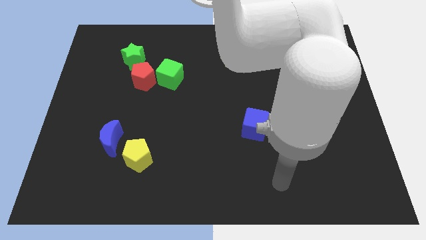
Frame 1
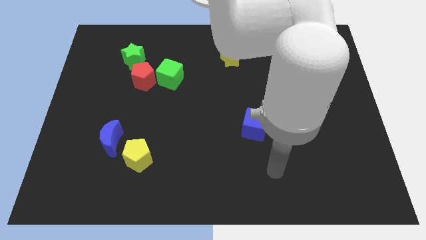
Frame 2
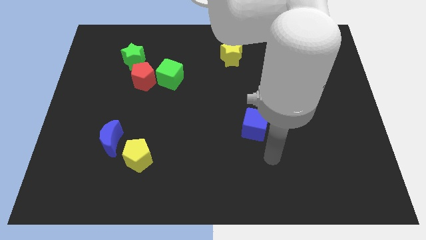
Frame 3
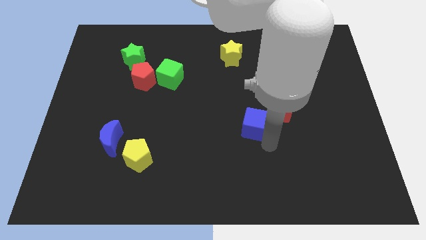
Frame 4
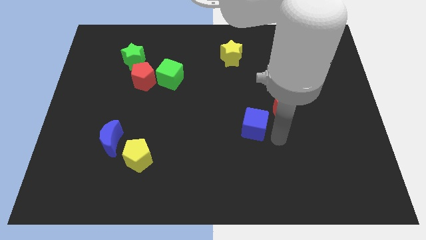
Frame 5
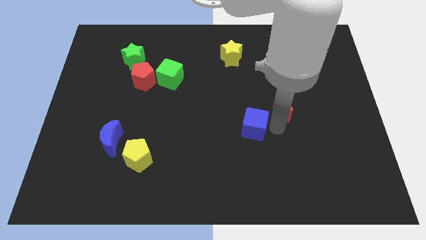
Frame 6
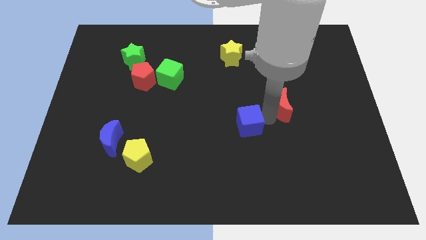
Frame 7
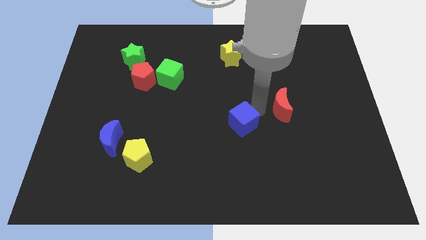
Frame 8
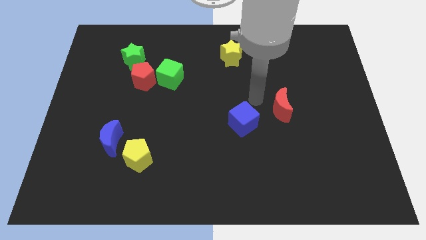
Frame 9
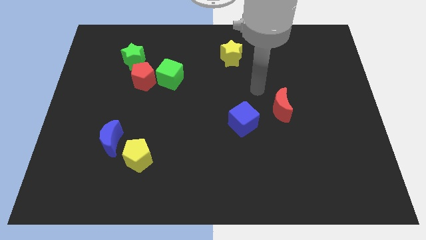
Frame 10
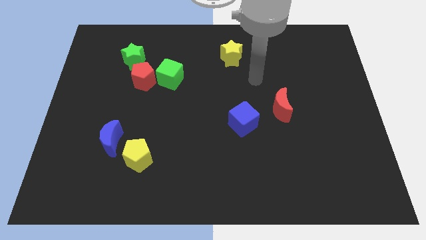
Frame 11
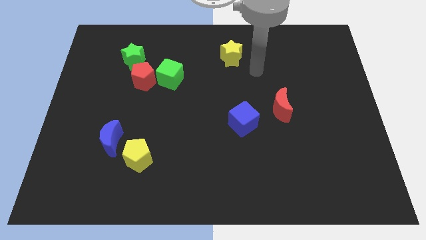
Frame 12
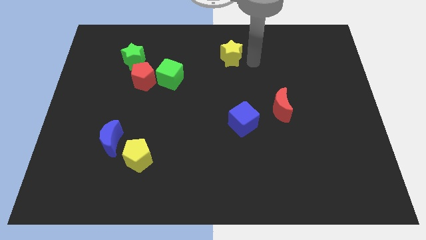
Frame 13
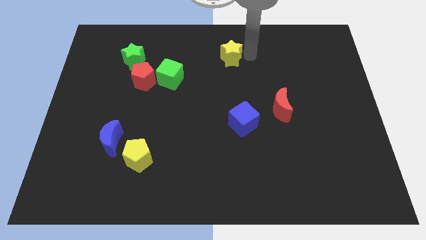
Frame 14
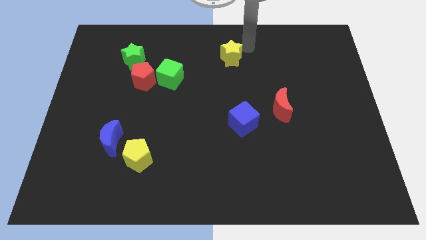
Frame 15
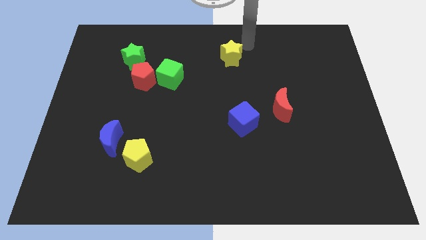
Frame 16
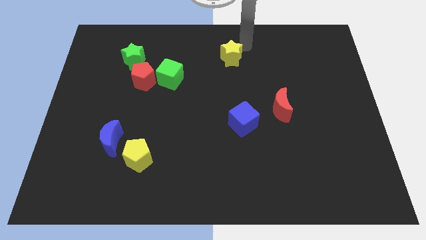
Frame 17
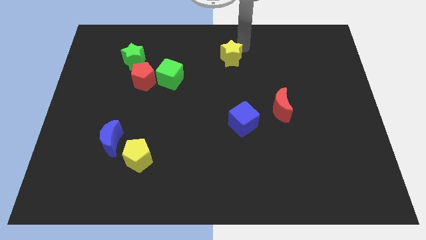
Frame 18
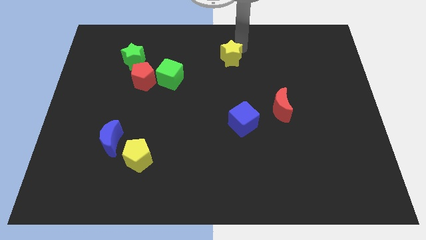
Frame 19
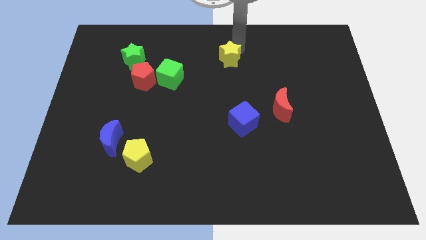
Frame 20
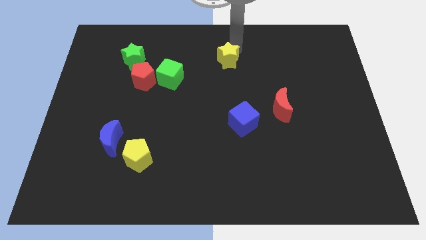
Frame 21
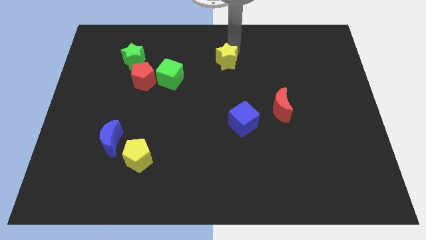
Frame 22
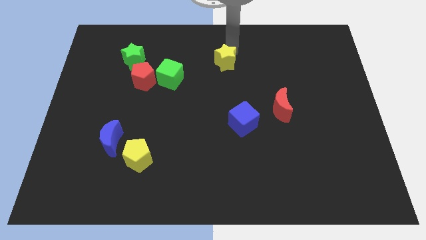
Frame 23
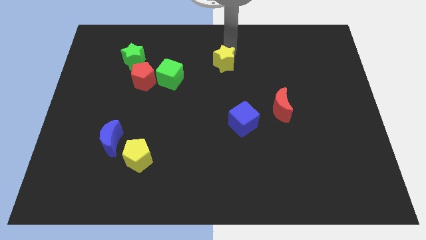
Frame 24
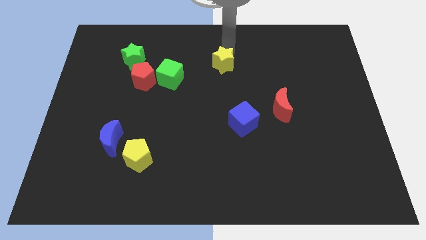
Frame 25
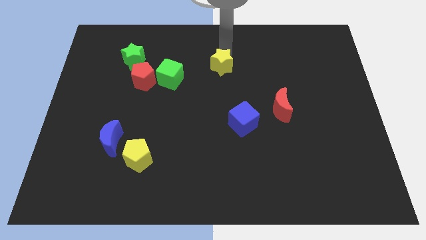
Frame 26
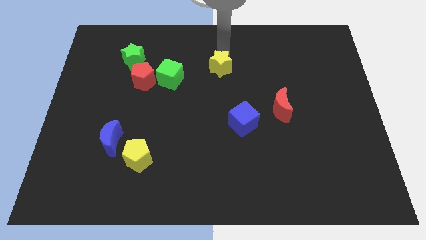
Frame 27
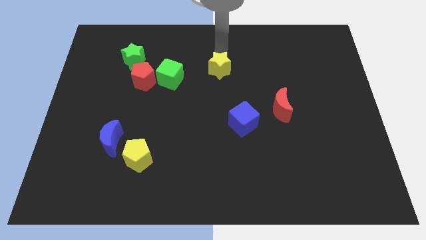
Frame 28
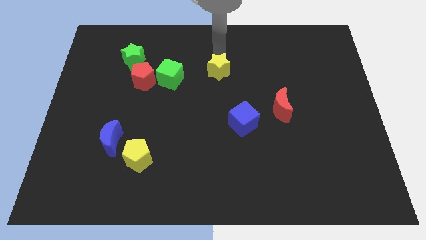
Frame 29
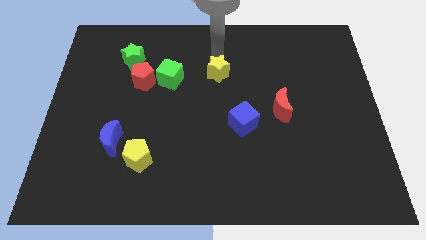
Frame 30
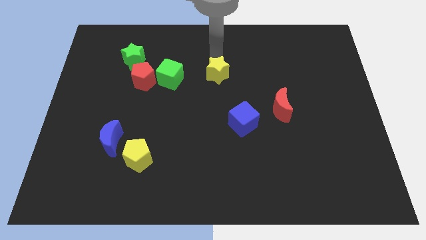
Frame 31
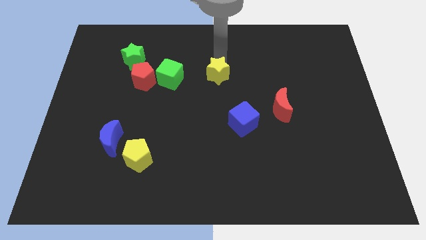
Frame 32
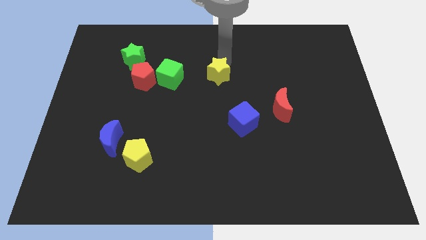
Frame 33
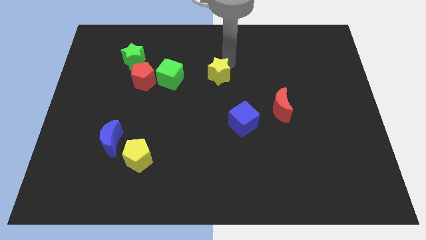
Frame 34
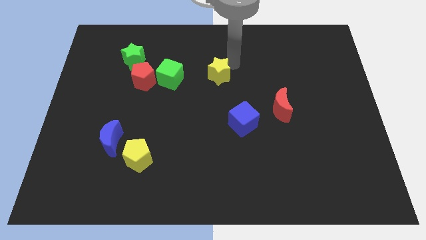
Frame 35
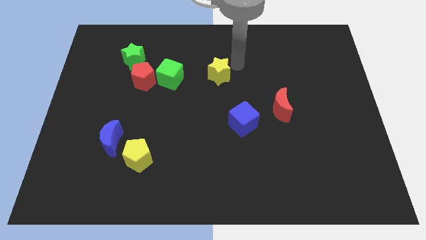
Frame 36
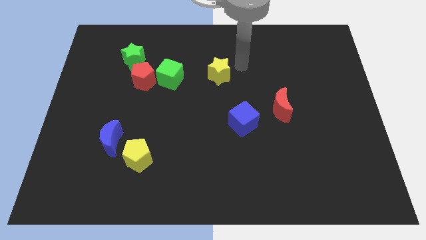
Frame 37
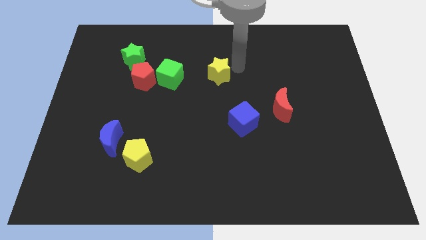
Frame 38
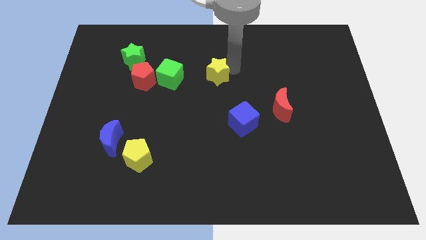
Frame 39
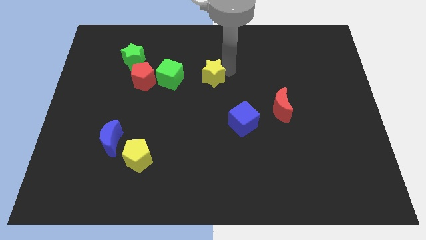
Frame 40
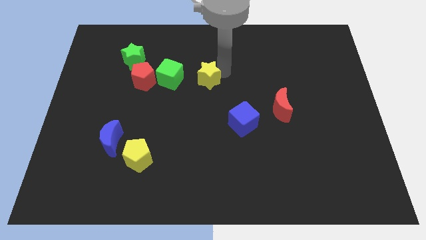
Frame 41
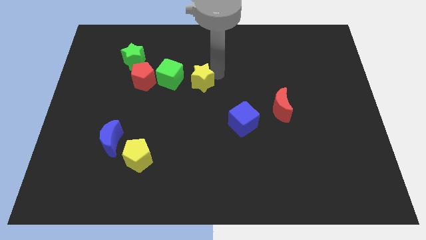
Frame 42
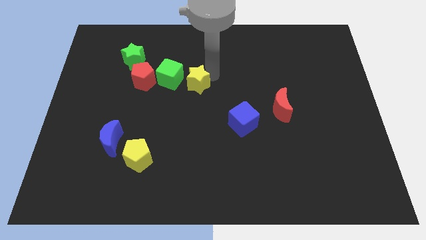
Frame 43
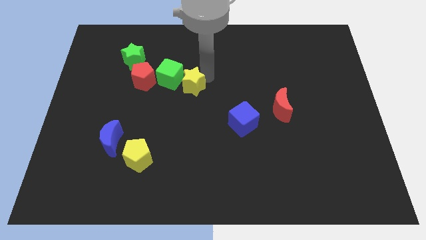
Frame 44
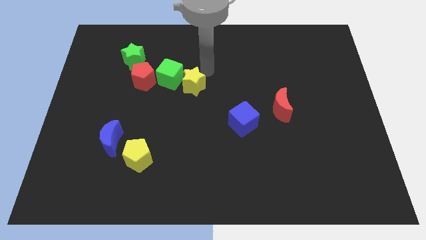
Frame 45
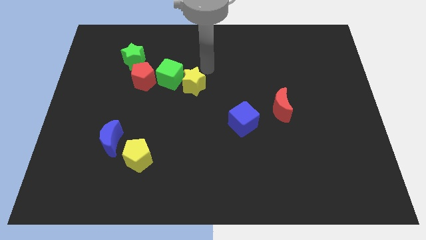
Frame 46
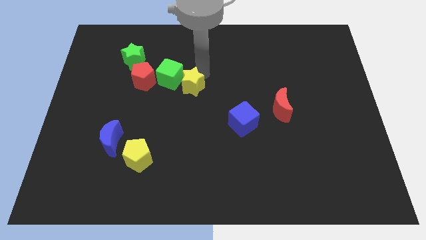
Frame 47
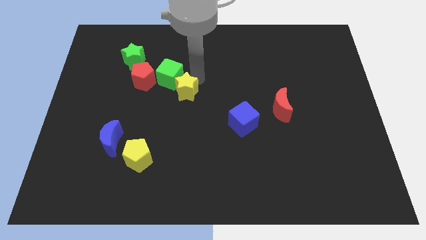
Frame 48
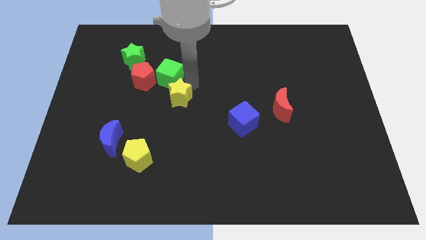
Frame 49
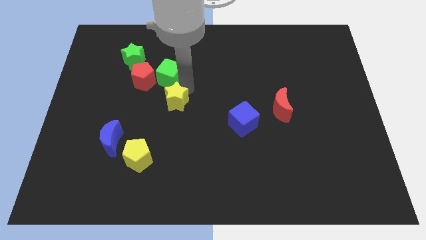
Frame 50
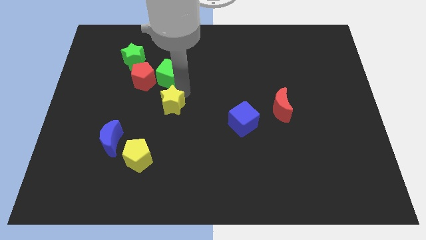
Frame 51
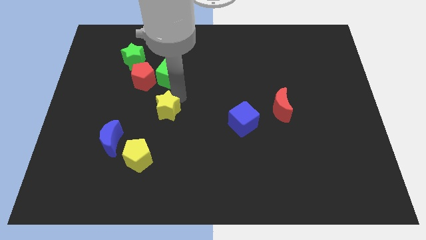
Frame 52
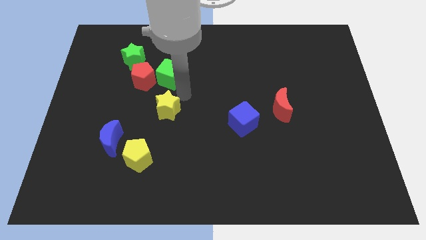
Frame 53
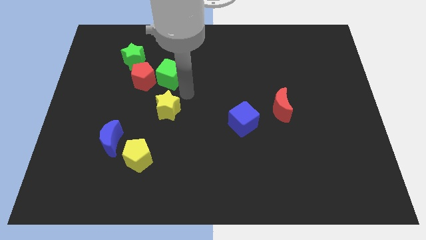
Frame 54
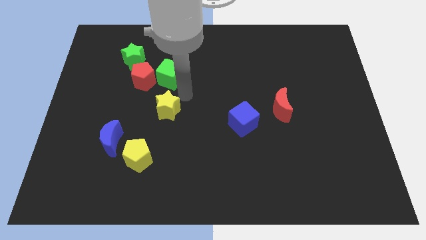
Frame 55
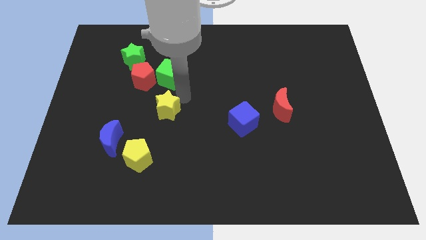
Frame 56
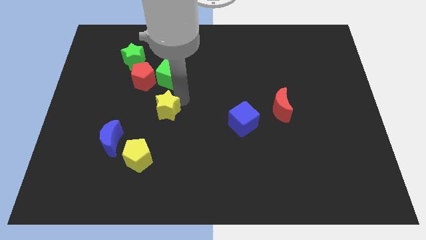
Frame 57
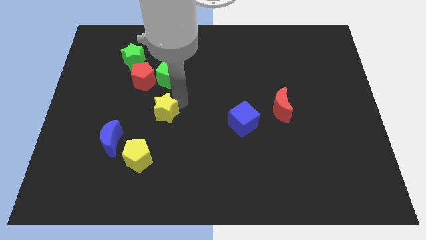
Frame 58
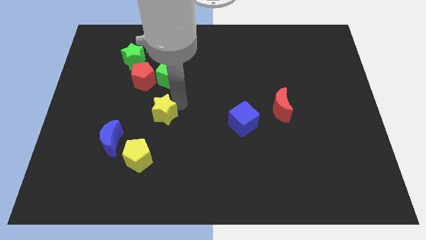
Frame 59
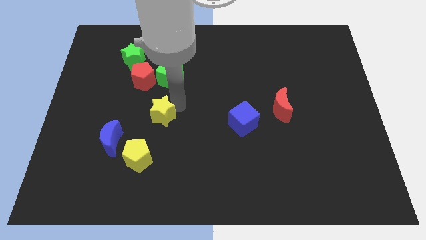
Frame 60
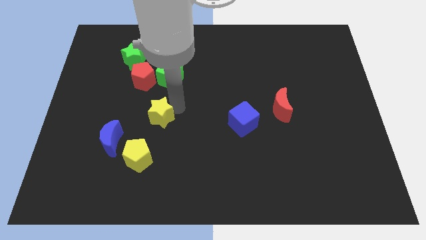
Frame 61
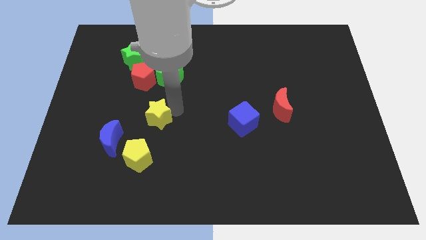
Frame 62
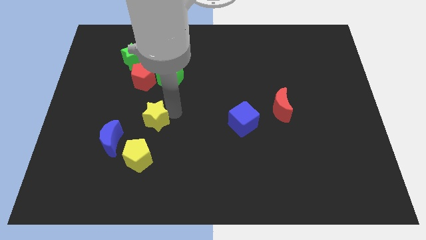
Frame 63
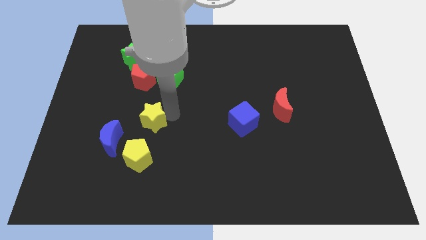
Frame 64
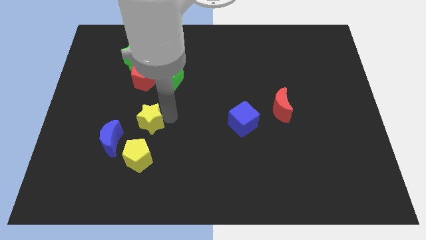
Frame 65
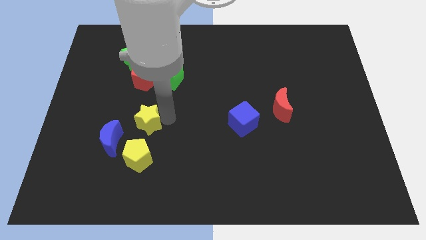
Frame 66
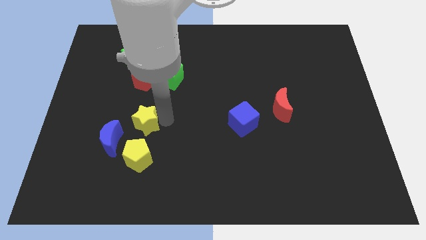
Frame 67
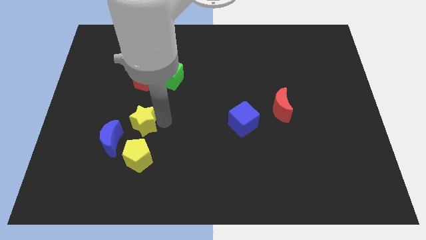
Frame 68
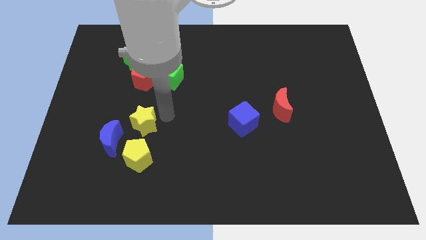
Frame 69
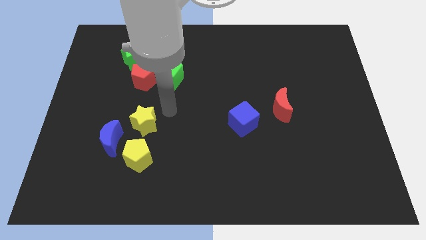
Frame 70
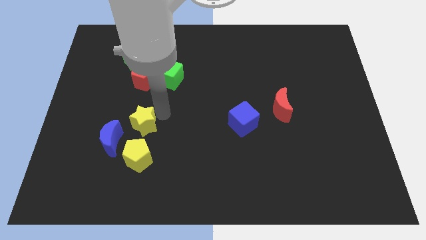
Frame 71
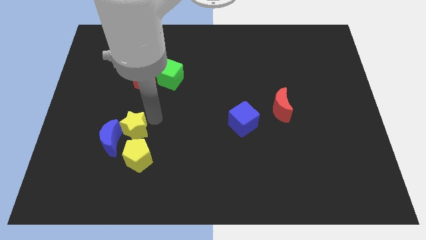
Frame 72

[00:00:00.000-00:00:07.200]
push the yellow star next to the blue moon
